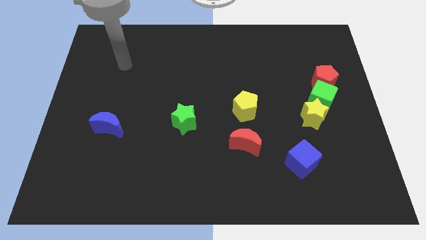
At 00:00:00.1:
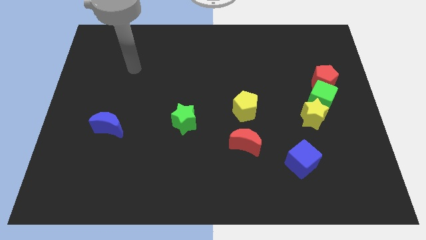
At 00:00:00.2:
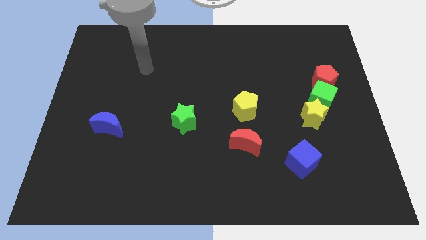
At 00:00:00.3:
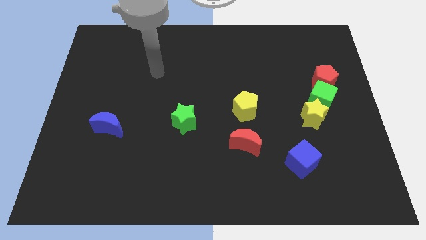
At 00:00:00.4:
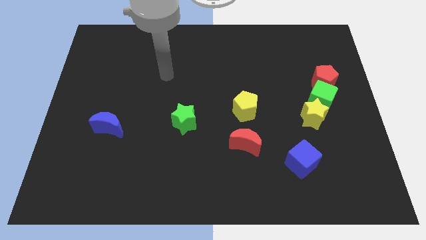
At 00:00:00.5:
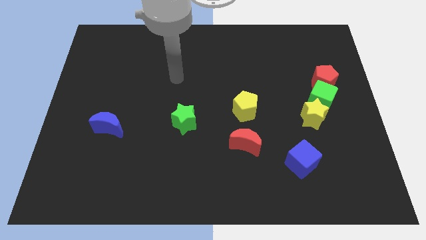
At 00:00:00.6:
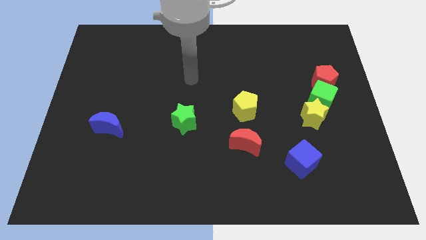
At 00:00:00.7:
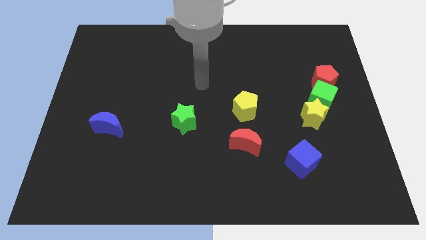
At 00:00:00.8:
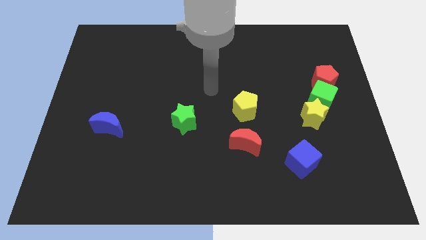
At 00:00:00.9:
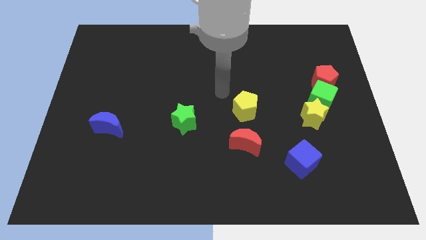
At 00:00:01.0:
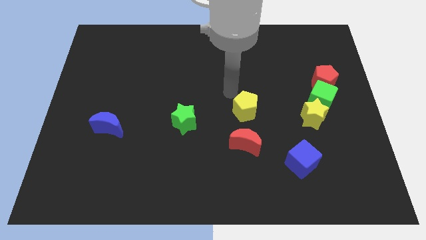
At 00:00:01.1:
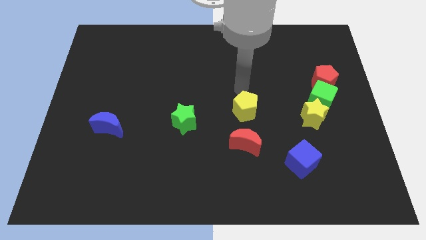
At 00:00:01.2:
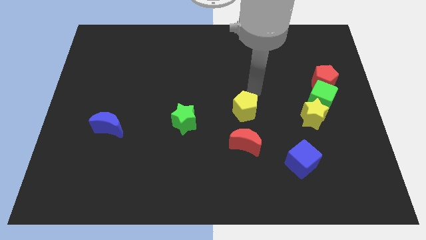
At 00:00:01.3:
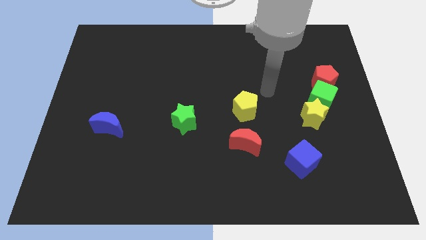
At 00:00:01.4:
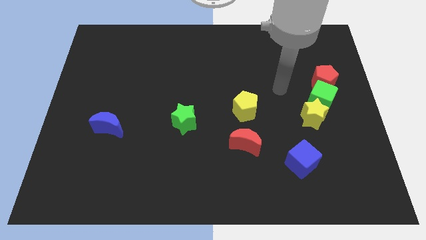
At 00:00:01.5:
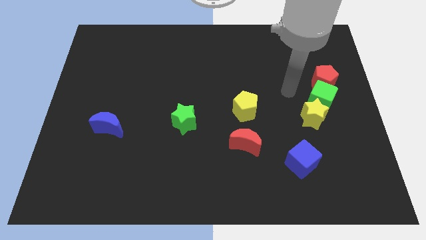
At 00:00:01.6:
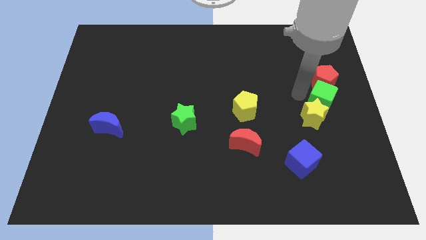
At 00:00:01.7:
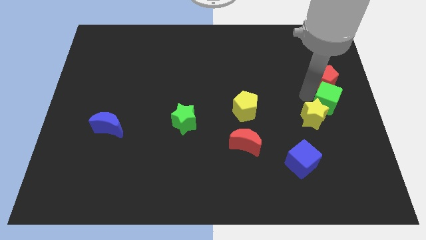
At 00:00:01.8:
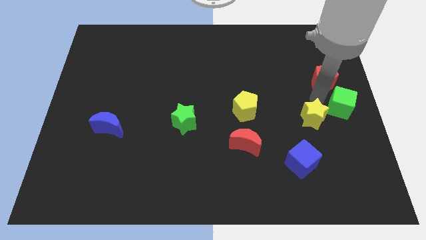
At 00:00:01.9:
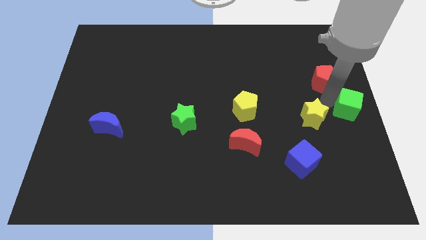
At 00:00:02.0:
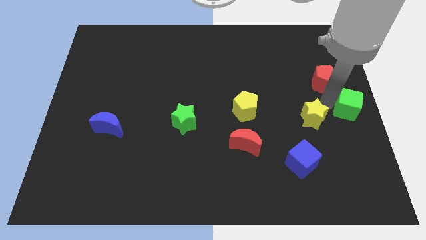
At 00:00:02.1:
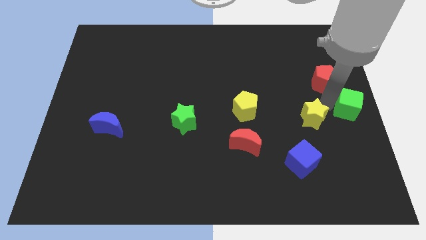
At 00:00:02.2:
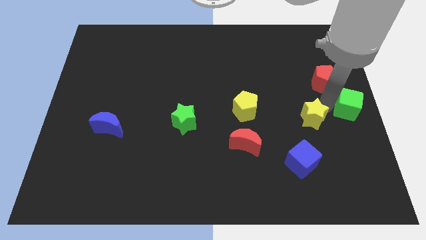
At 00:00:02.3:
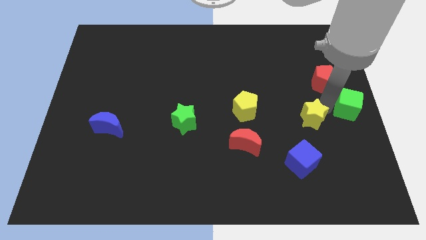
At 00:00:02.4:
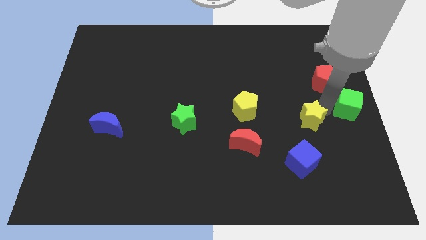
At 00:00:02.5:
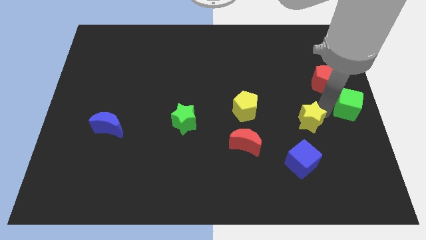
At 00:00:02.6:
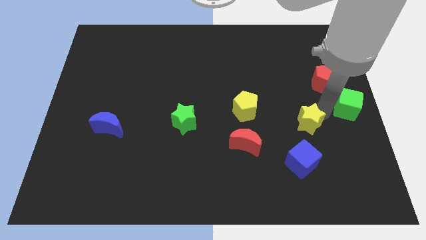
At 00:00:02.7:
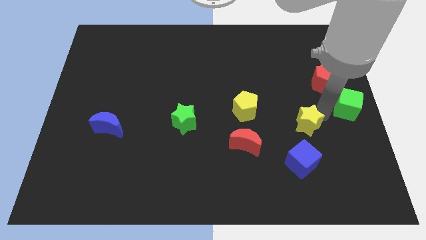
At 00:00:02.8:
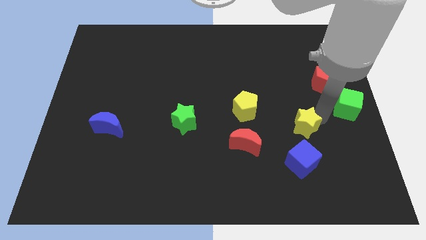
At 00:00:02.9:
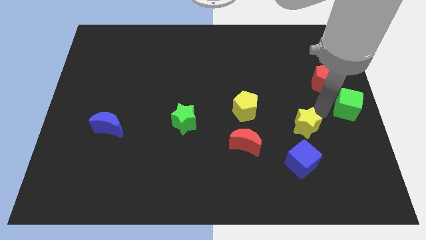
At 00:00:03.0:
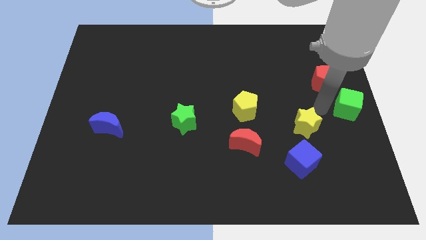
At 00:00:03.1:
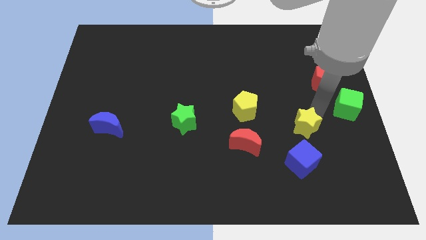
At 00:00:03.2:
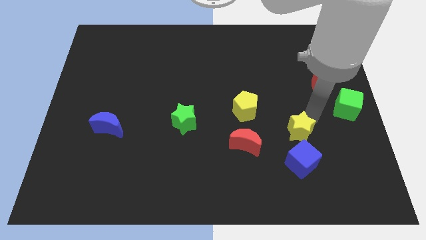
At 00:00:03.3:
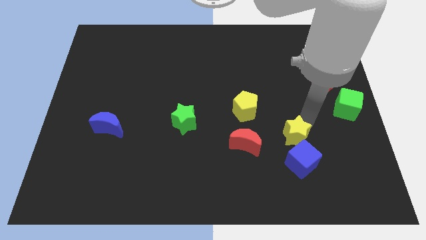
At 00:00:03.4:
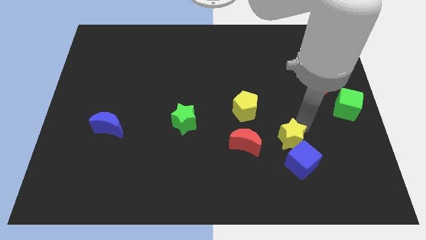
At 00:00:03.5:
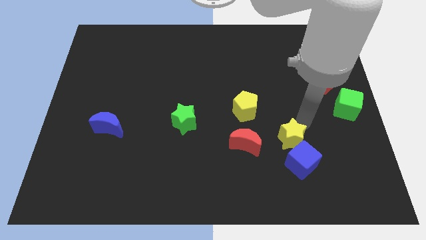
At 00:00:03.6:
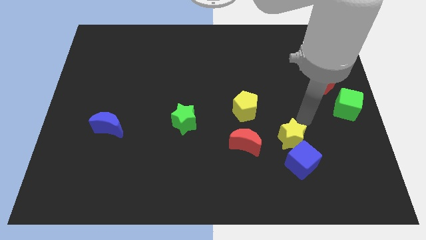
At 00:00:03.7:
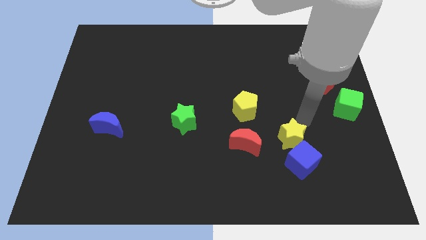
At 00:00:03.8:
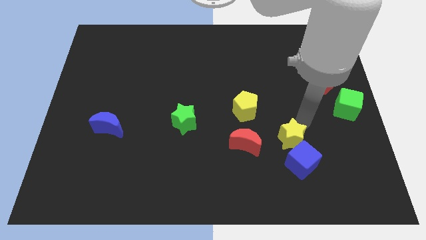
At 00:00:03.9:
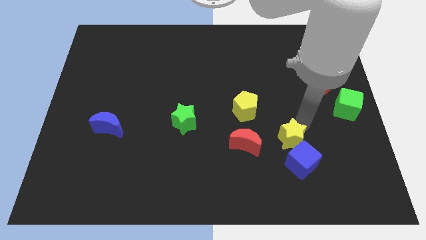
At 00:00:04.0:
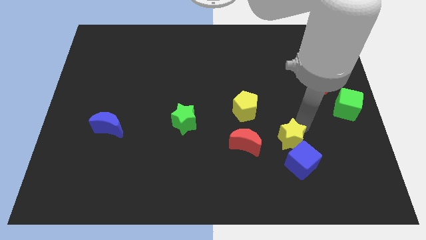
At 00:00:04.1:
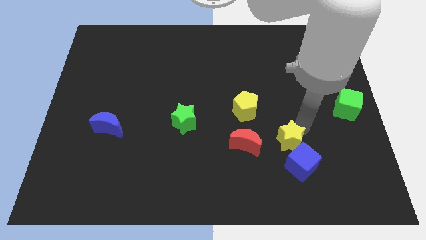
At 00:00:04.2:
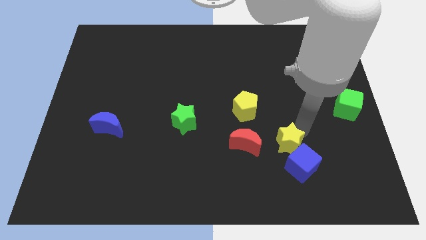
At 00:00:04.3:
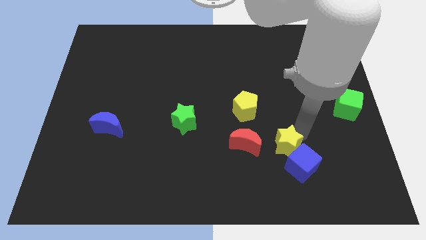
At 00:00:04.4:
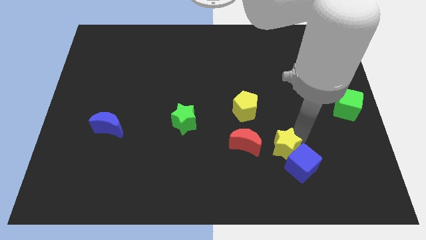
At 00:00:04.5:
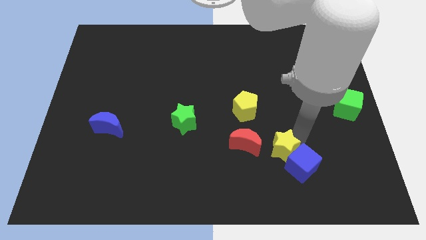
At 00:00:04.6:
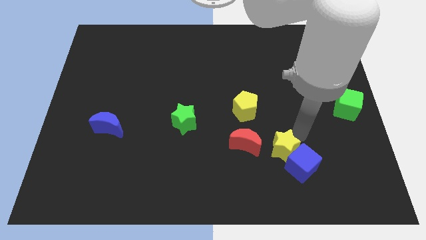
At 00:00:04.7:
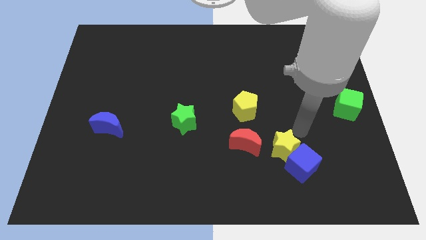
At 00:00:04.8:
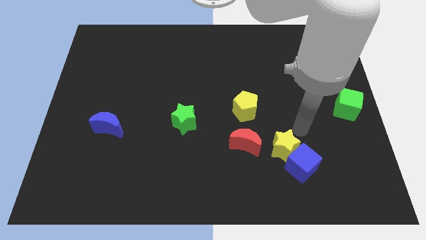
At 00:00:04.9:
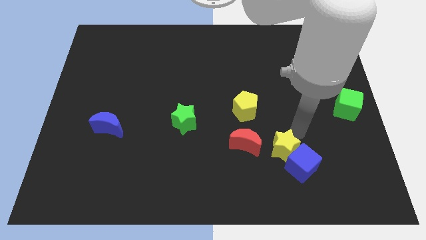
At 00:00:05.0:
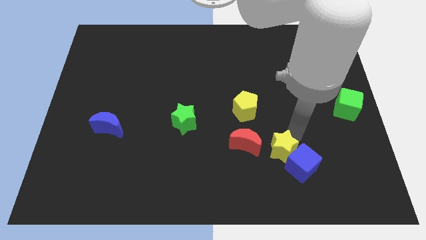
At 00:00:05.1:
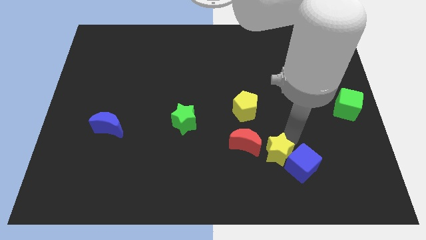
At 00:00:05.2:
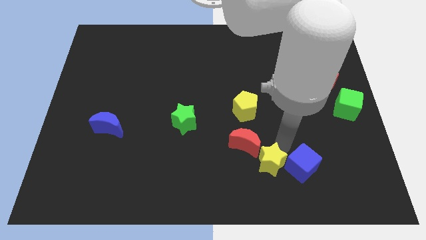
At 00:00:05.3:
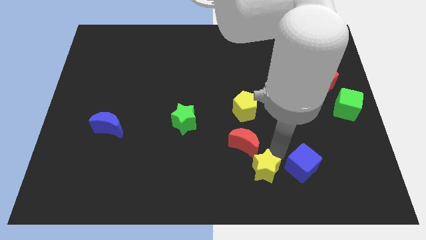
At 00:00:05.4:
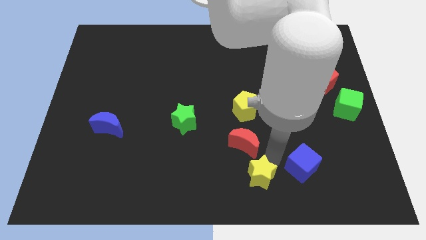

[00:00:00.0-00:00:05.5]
slide the yellow star to the bottom

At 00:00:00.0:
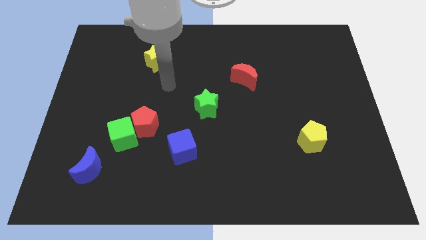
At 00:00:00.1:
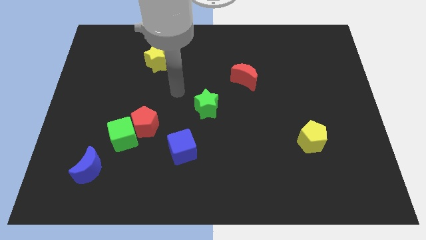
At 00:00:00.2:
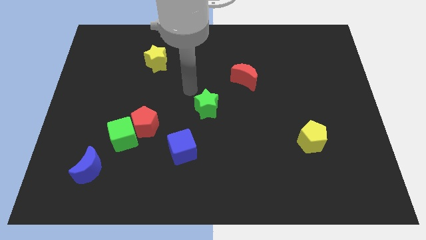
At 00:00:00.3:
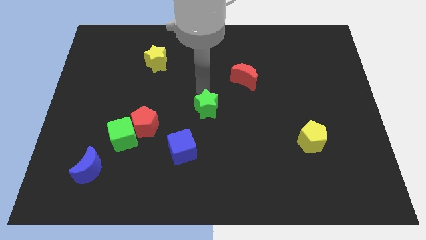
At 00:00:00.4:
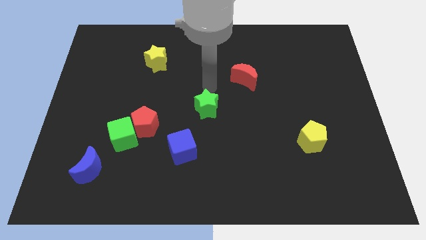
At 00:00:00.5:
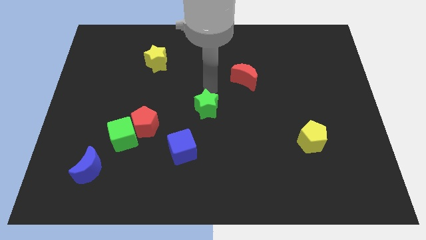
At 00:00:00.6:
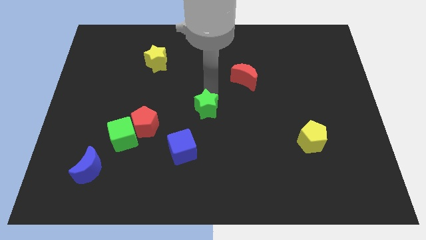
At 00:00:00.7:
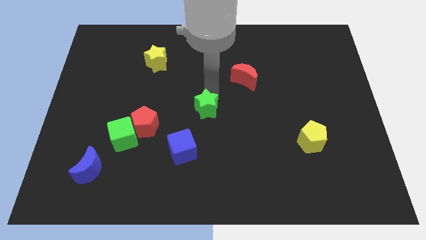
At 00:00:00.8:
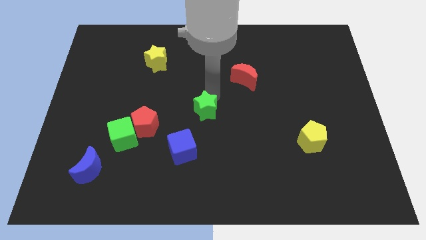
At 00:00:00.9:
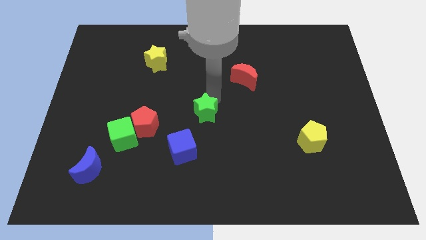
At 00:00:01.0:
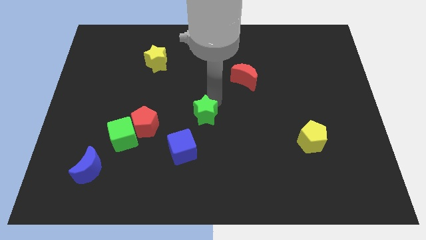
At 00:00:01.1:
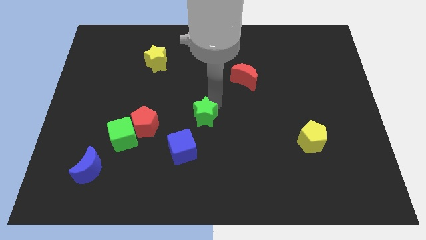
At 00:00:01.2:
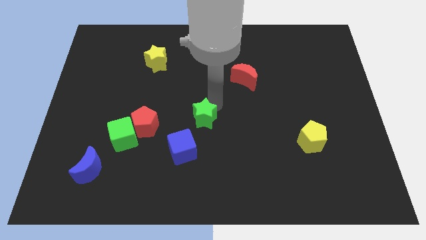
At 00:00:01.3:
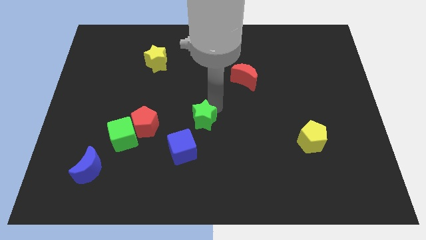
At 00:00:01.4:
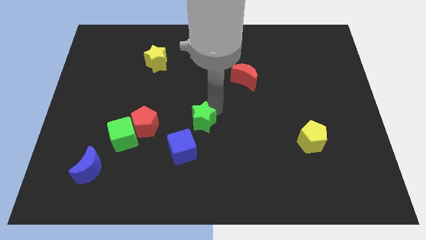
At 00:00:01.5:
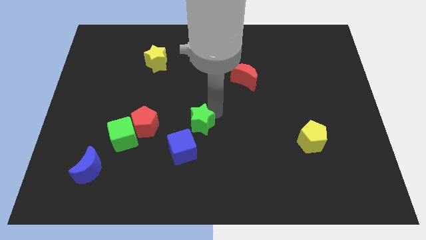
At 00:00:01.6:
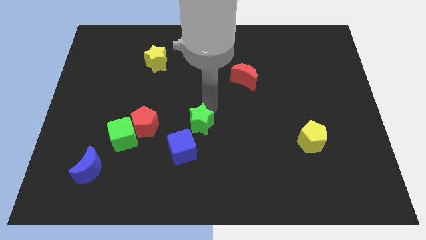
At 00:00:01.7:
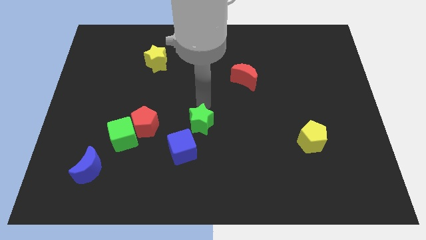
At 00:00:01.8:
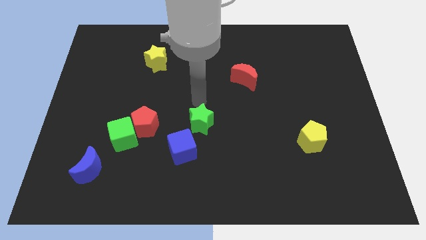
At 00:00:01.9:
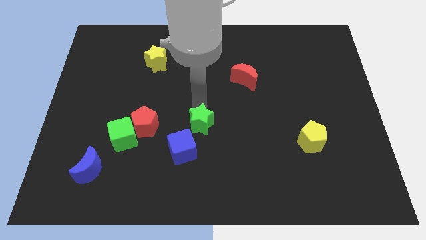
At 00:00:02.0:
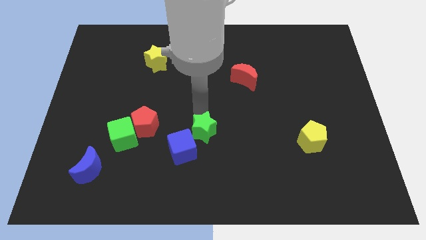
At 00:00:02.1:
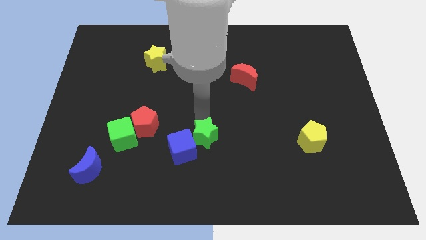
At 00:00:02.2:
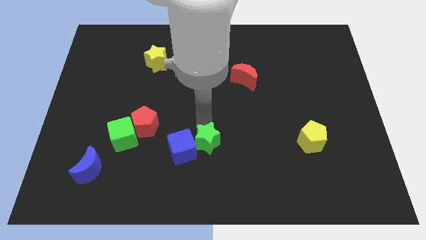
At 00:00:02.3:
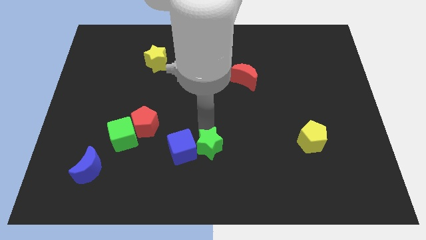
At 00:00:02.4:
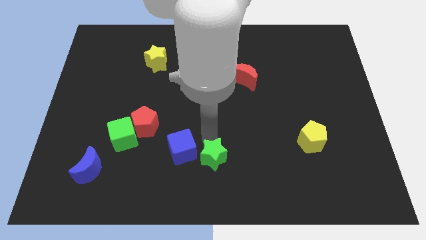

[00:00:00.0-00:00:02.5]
move the green star to the bottom
